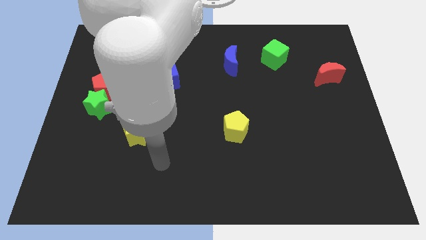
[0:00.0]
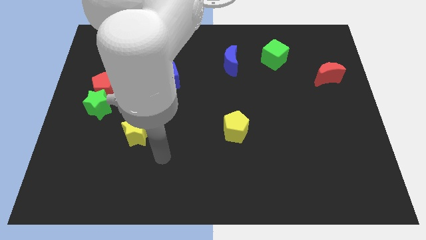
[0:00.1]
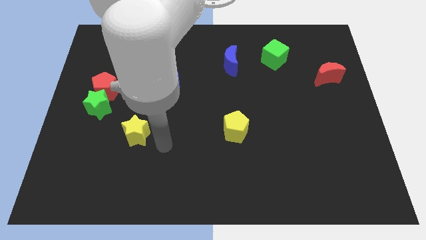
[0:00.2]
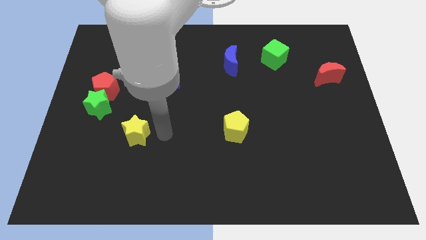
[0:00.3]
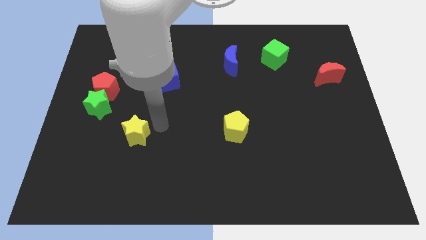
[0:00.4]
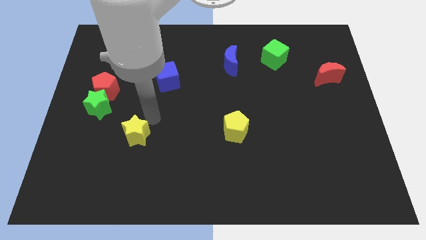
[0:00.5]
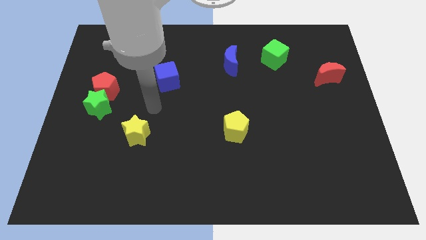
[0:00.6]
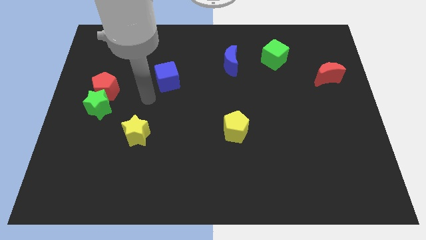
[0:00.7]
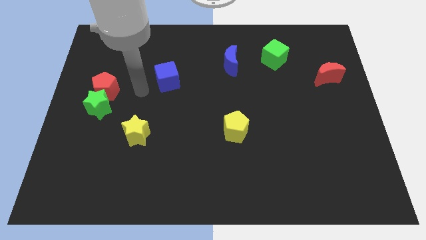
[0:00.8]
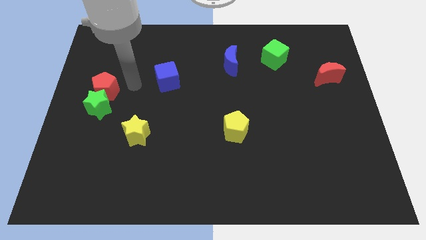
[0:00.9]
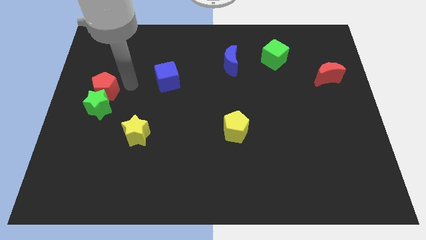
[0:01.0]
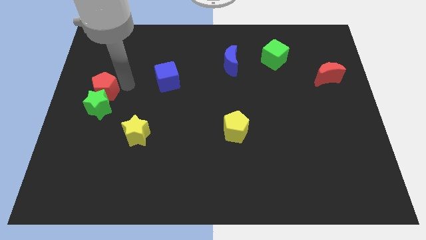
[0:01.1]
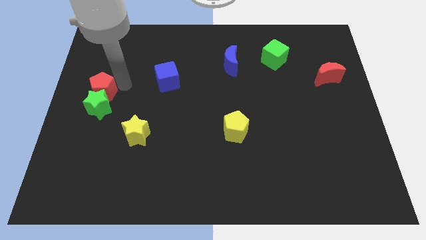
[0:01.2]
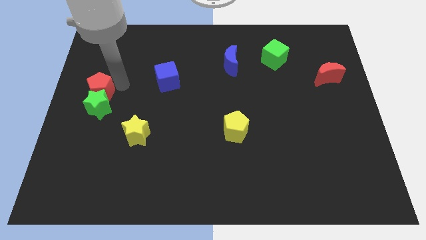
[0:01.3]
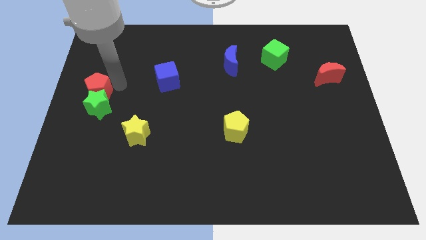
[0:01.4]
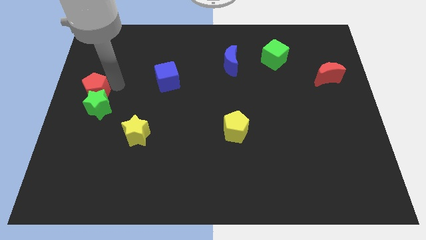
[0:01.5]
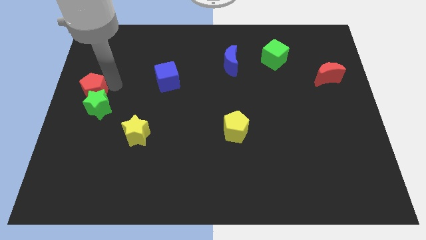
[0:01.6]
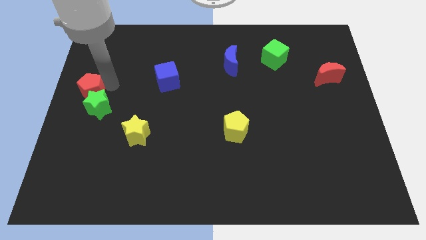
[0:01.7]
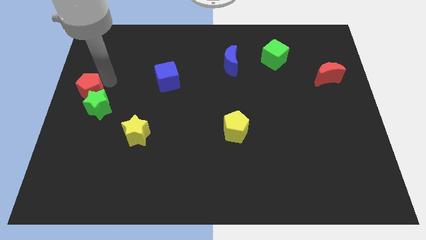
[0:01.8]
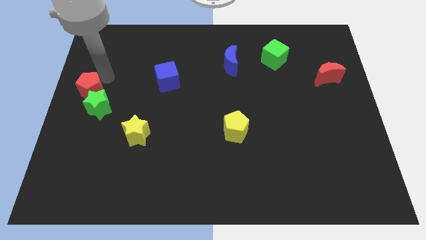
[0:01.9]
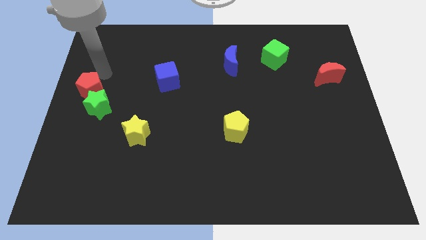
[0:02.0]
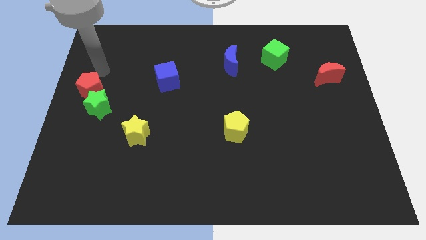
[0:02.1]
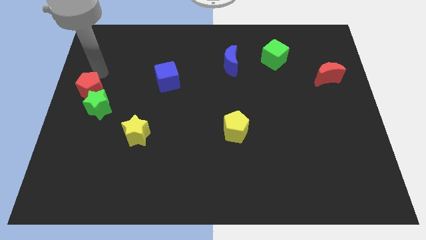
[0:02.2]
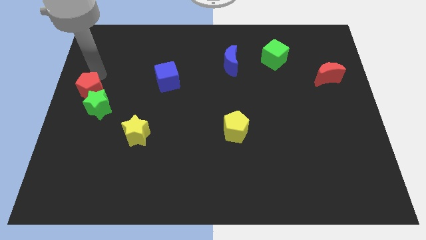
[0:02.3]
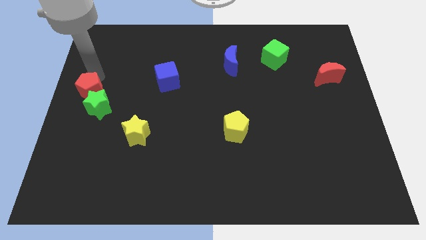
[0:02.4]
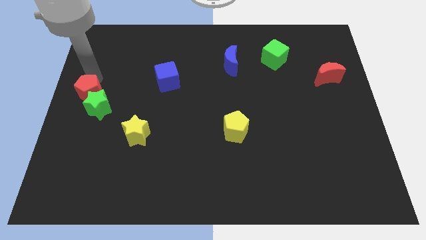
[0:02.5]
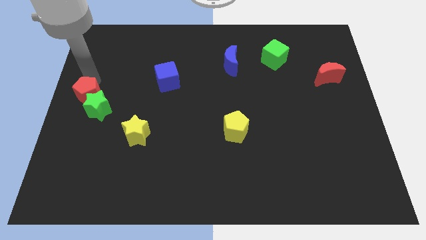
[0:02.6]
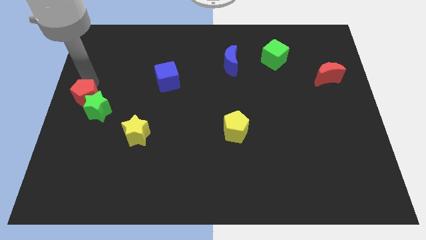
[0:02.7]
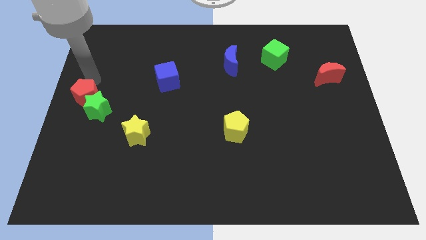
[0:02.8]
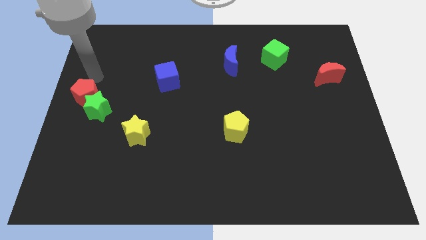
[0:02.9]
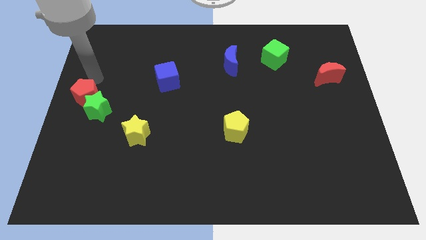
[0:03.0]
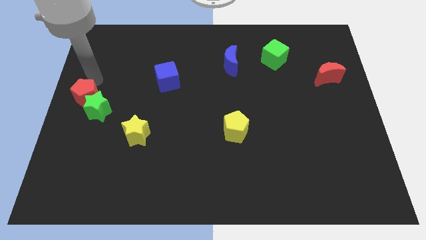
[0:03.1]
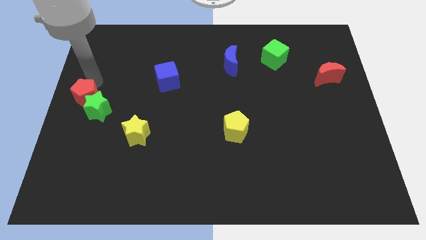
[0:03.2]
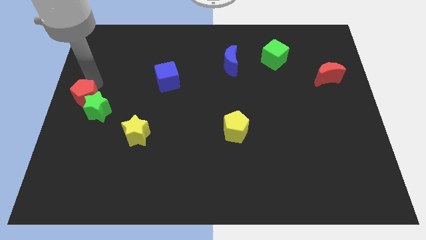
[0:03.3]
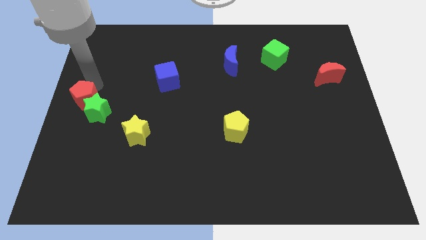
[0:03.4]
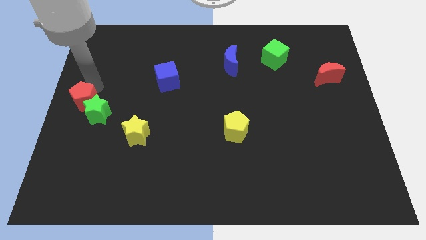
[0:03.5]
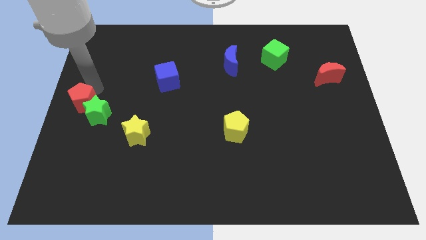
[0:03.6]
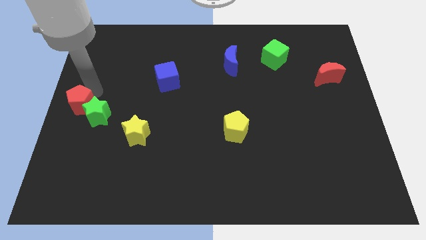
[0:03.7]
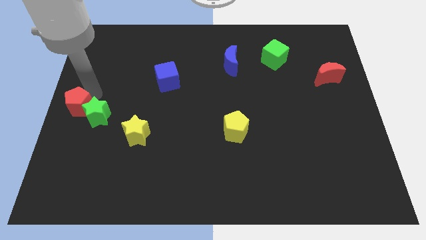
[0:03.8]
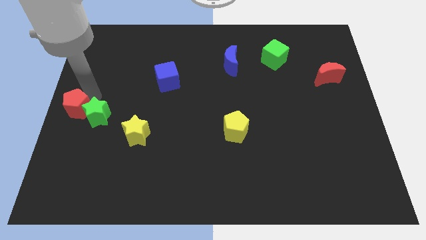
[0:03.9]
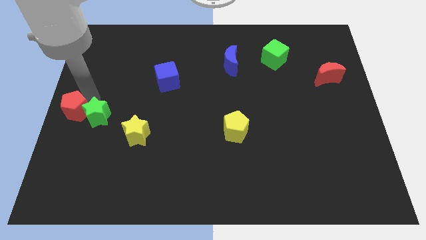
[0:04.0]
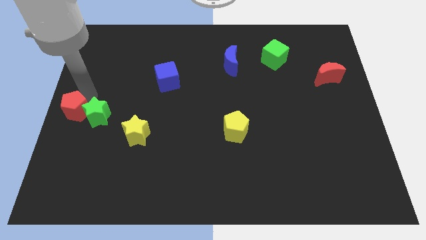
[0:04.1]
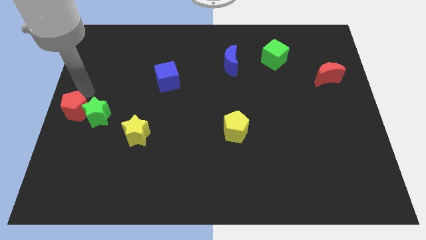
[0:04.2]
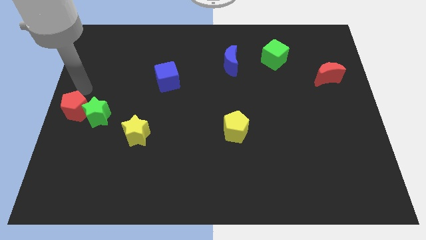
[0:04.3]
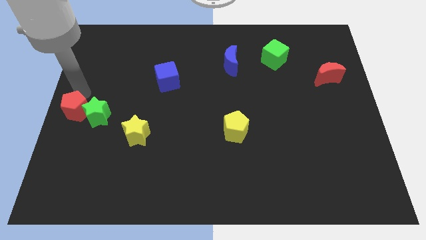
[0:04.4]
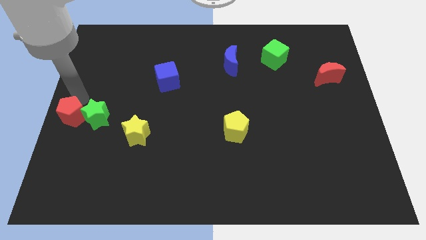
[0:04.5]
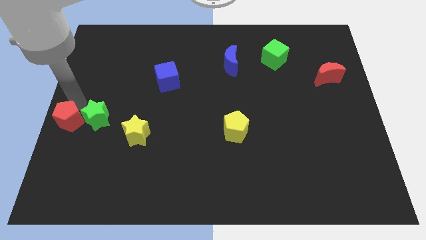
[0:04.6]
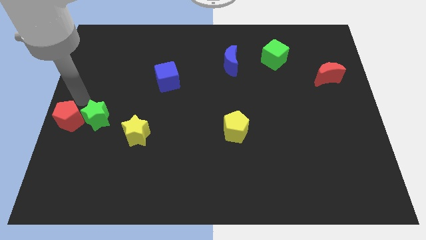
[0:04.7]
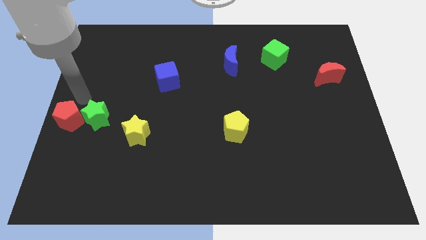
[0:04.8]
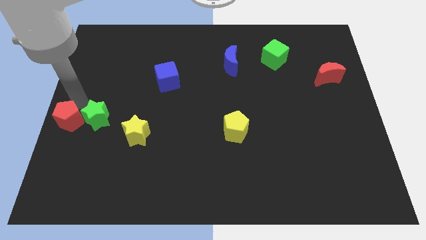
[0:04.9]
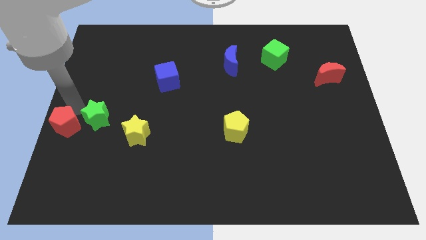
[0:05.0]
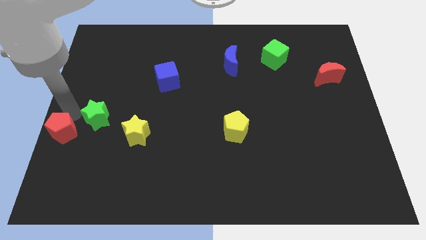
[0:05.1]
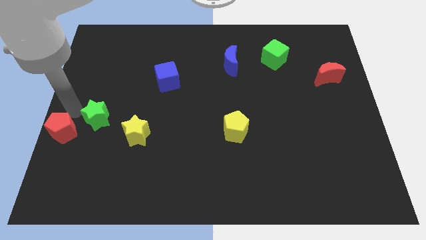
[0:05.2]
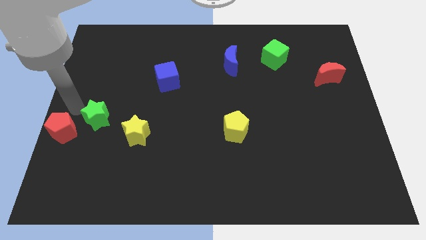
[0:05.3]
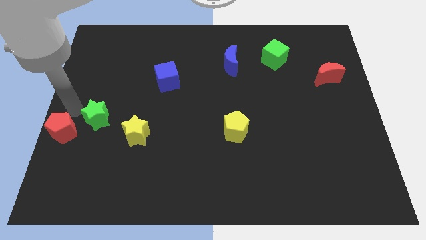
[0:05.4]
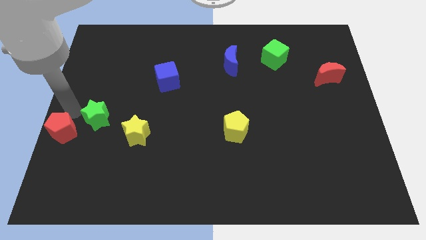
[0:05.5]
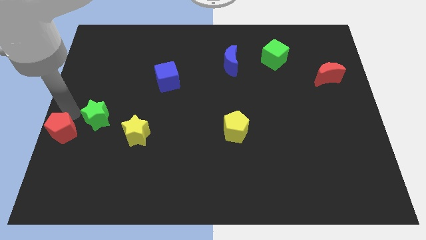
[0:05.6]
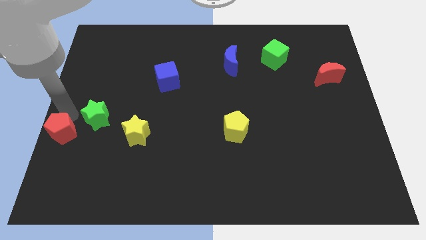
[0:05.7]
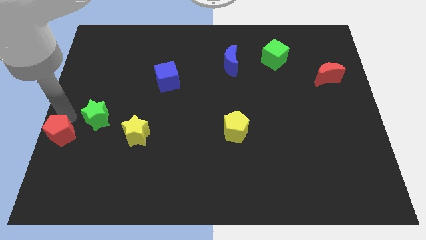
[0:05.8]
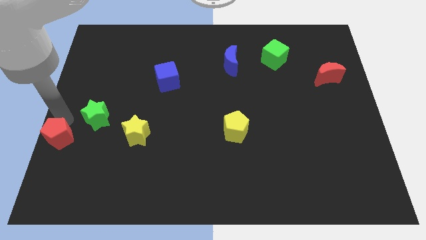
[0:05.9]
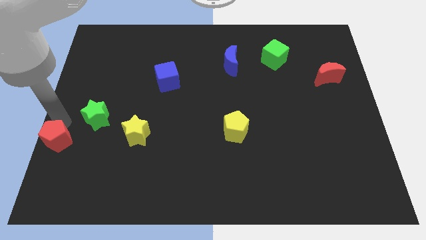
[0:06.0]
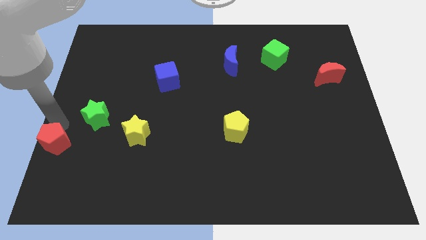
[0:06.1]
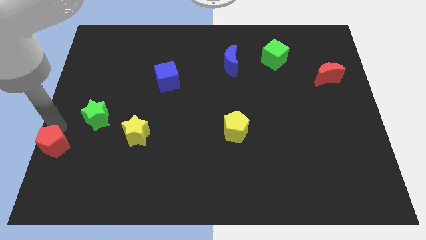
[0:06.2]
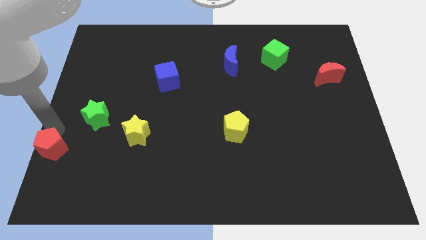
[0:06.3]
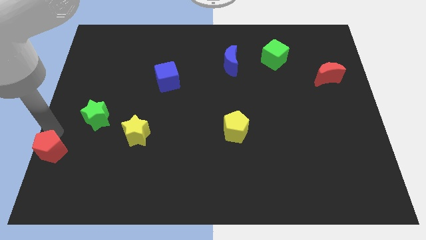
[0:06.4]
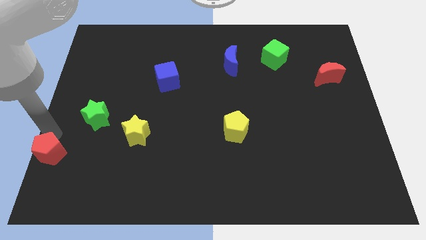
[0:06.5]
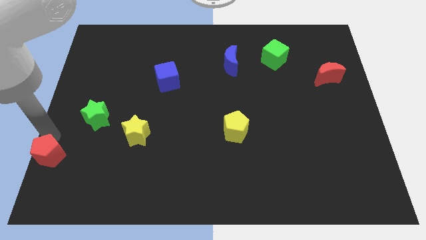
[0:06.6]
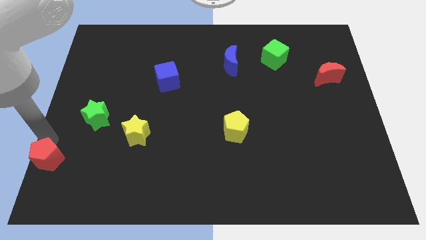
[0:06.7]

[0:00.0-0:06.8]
slide the red pentagon to the bottom left corner

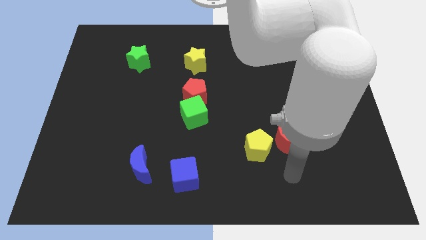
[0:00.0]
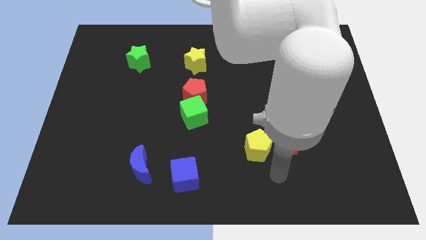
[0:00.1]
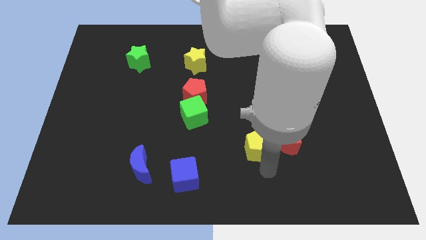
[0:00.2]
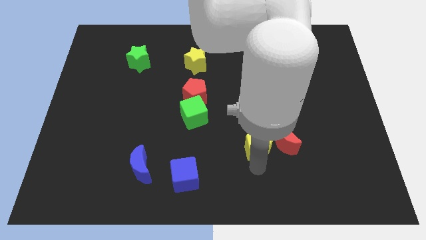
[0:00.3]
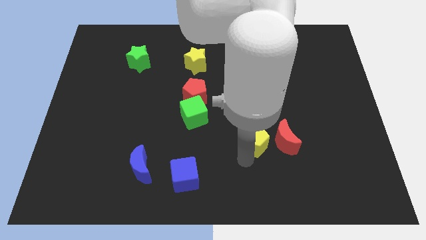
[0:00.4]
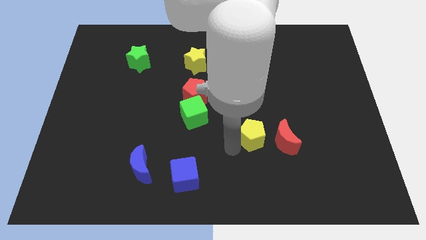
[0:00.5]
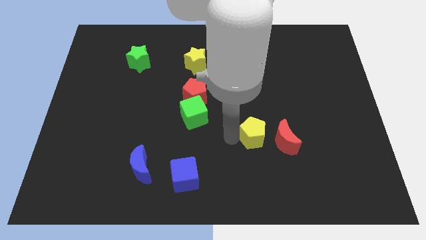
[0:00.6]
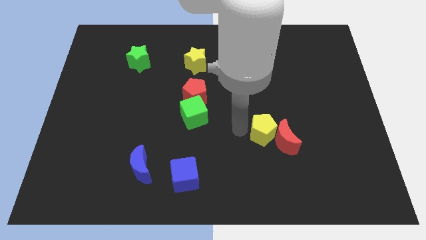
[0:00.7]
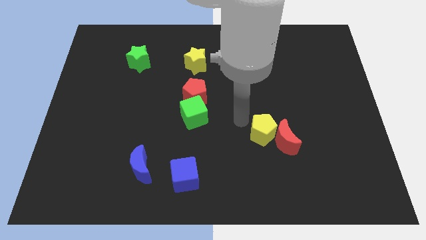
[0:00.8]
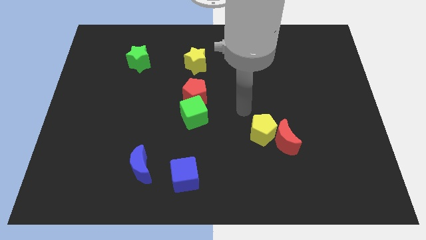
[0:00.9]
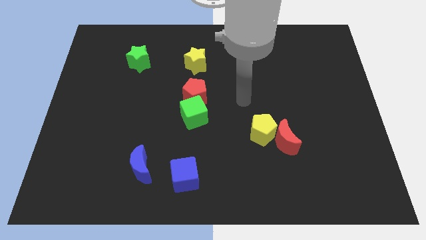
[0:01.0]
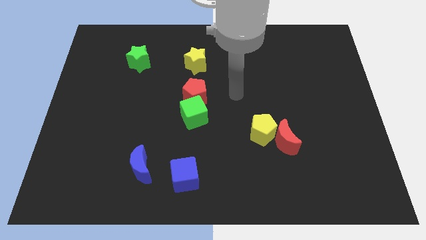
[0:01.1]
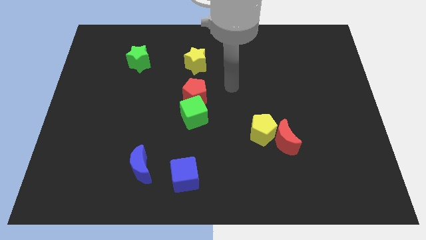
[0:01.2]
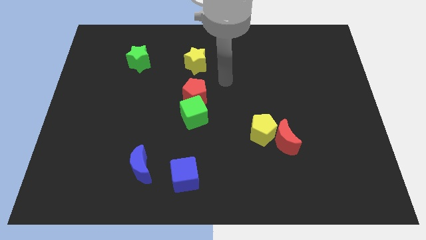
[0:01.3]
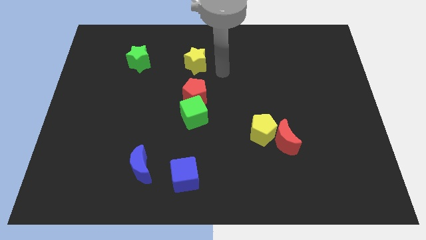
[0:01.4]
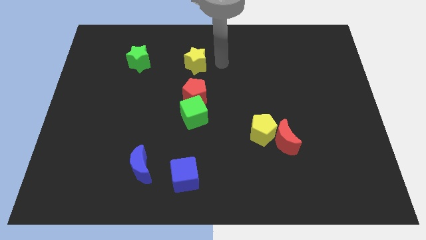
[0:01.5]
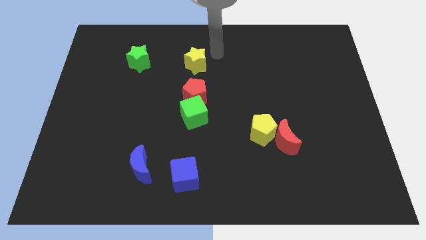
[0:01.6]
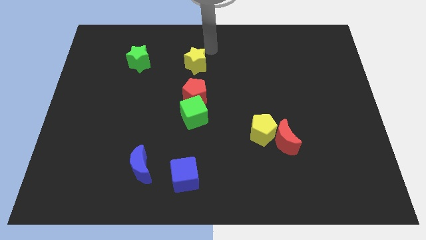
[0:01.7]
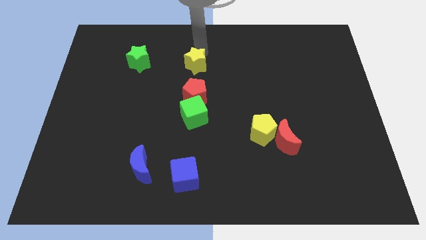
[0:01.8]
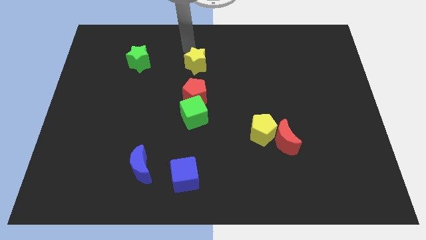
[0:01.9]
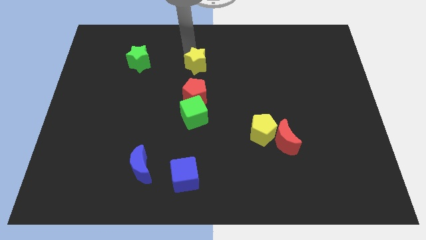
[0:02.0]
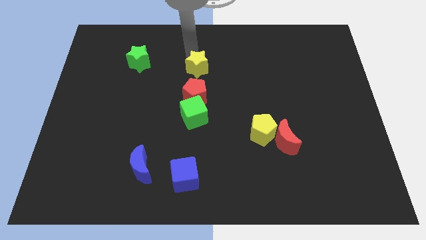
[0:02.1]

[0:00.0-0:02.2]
push the yellow star to the middle of the board
